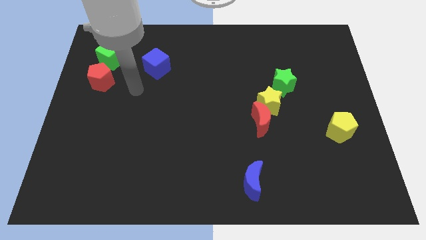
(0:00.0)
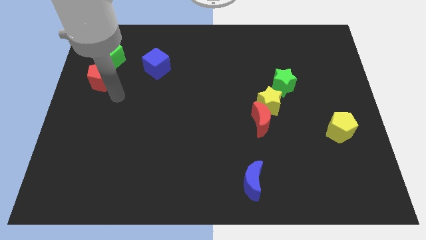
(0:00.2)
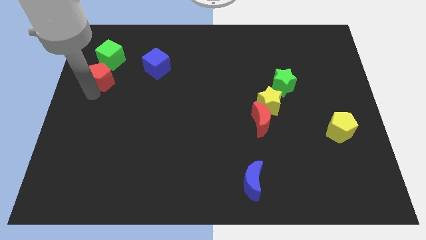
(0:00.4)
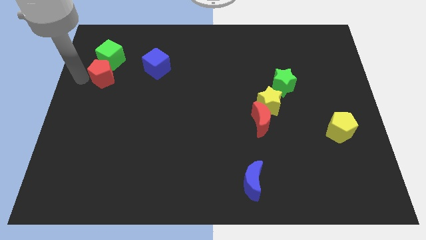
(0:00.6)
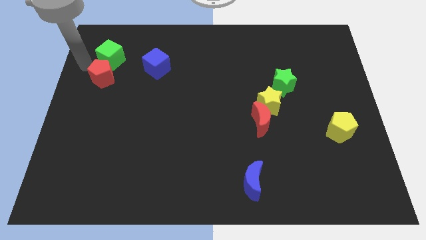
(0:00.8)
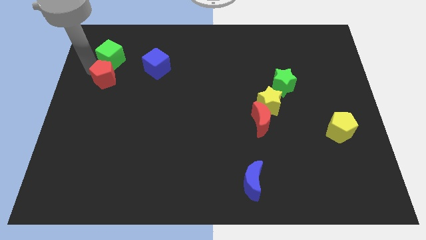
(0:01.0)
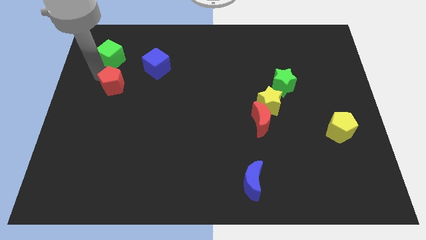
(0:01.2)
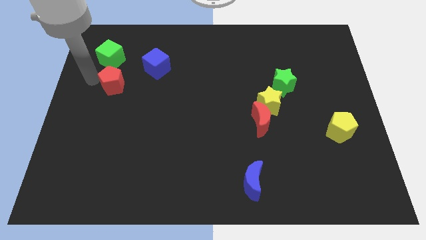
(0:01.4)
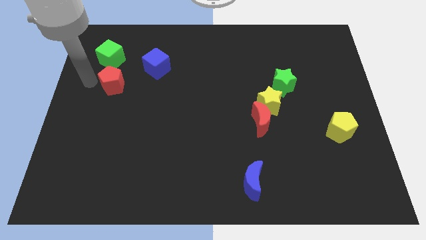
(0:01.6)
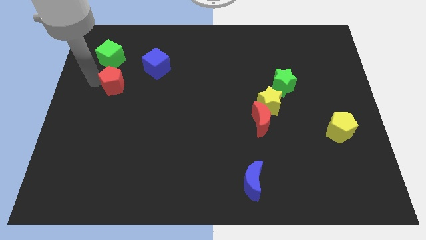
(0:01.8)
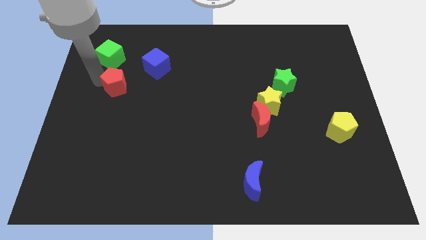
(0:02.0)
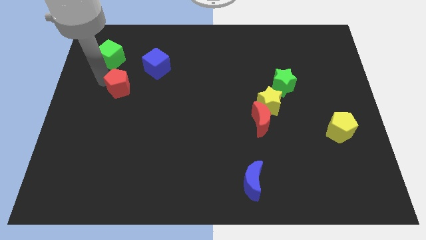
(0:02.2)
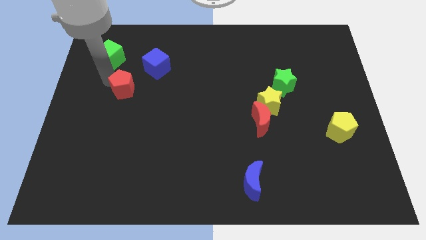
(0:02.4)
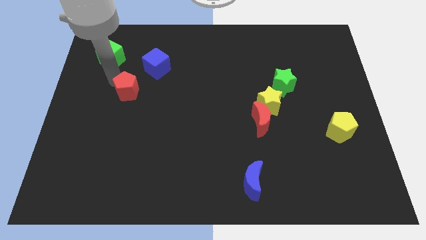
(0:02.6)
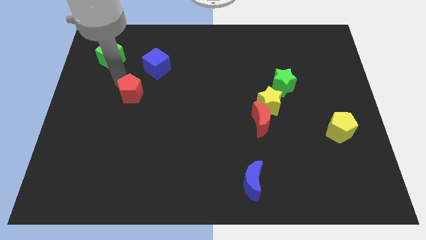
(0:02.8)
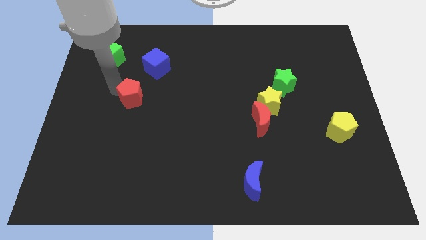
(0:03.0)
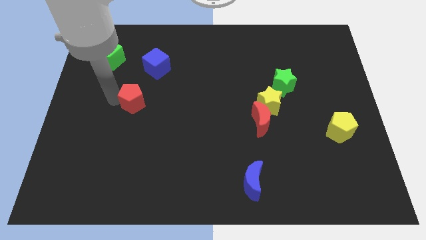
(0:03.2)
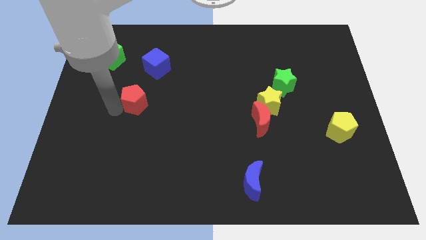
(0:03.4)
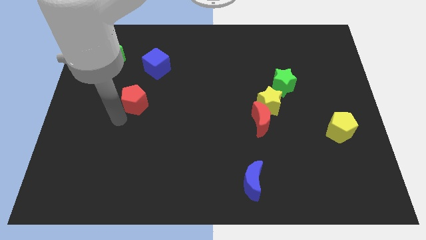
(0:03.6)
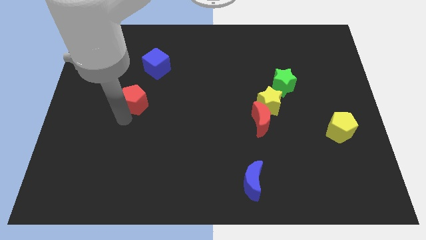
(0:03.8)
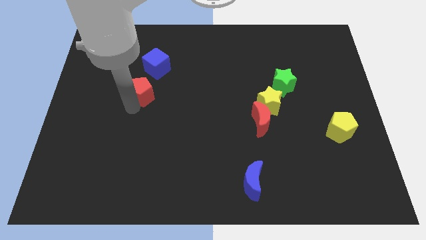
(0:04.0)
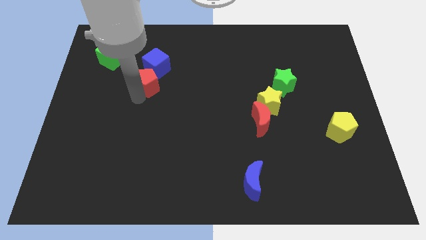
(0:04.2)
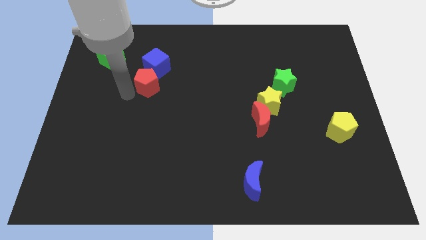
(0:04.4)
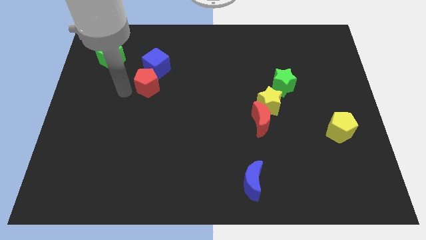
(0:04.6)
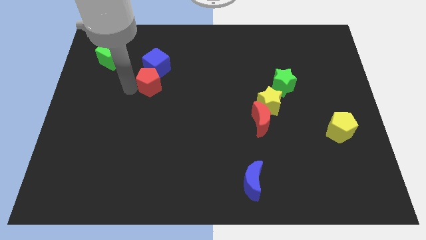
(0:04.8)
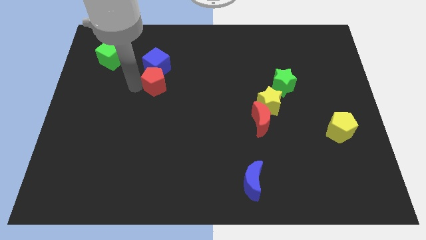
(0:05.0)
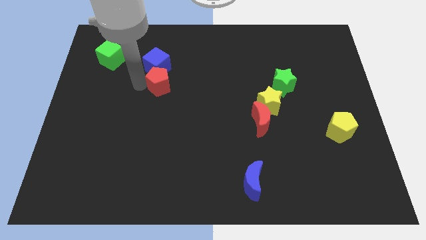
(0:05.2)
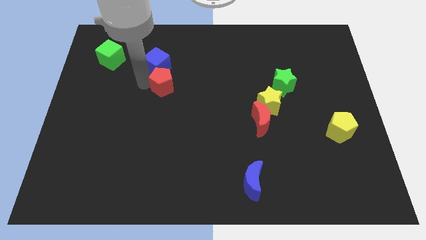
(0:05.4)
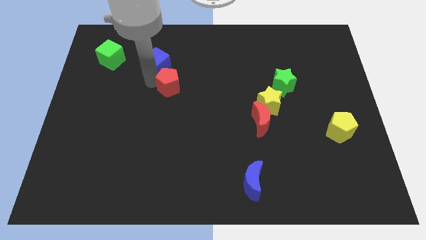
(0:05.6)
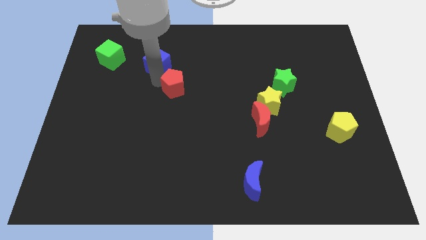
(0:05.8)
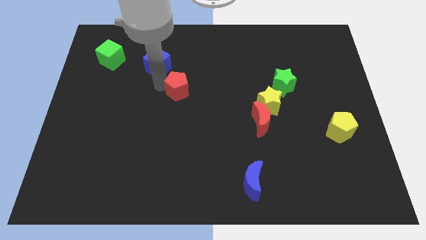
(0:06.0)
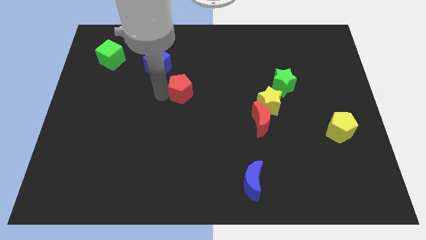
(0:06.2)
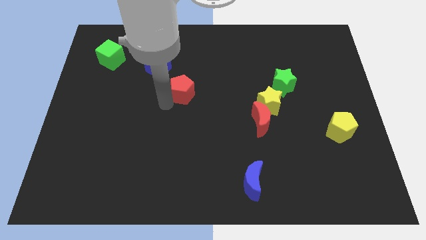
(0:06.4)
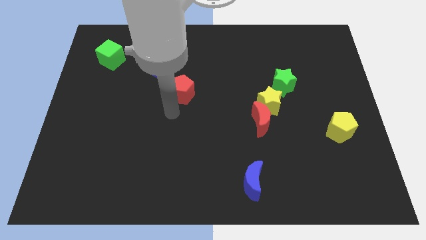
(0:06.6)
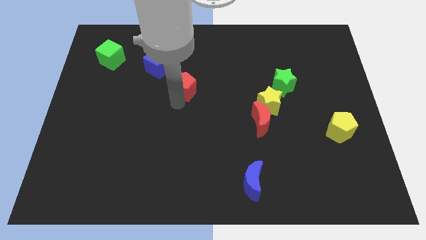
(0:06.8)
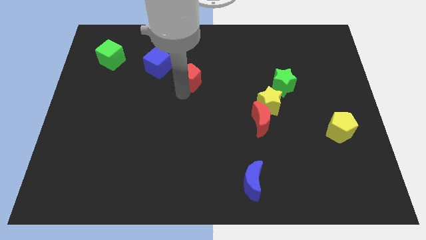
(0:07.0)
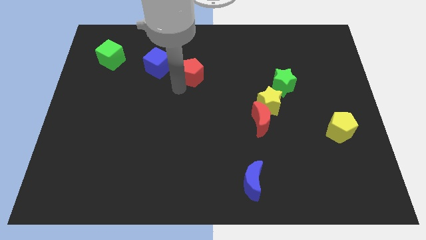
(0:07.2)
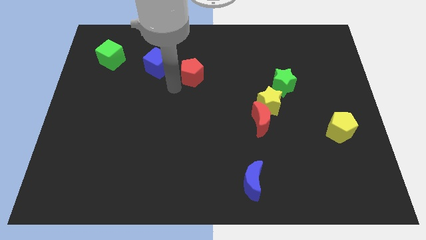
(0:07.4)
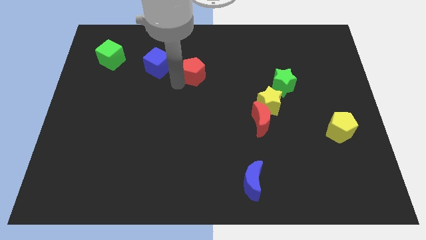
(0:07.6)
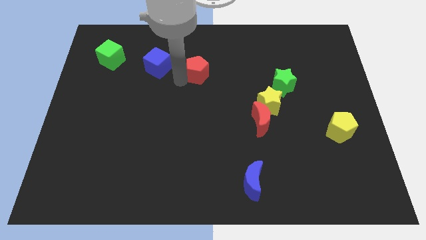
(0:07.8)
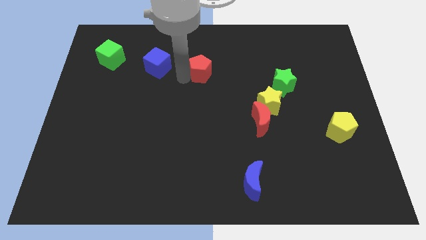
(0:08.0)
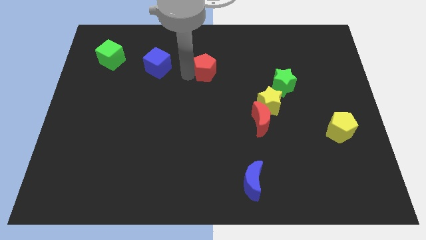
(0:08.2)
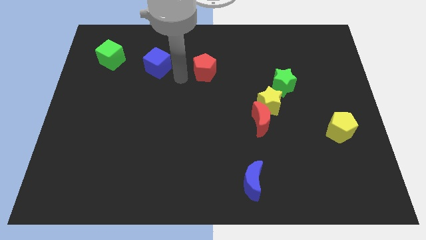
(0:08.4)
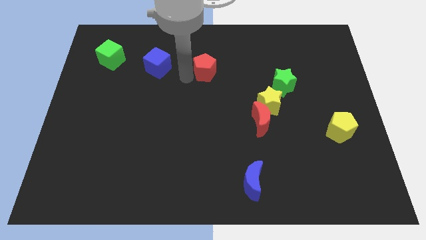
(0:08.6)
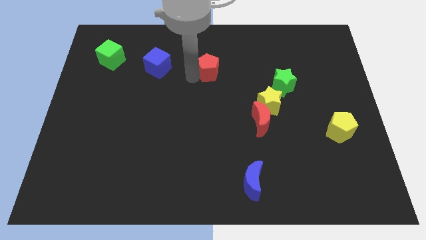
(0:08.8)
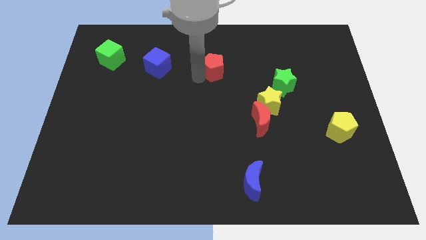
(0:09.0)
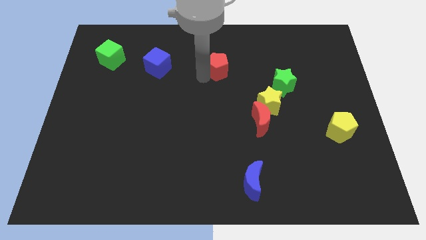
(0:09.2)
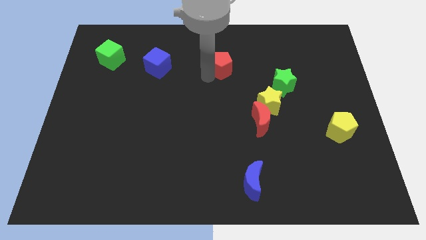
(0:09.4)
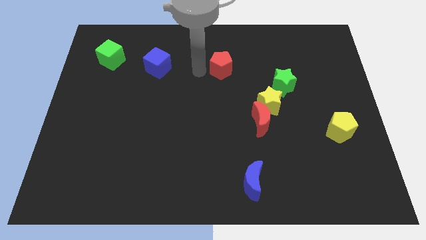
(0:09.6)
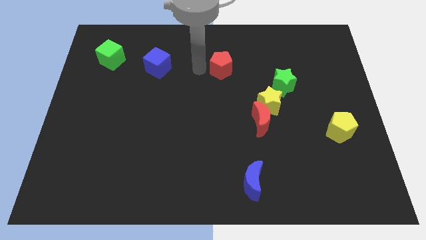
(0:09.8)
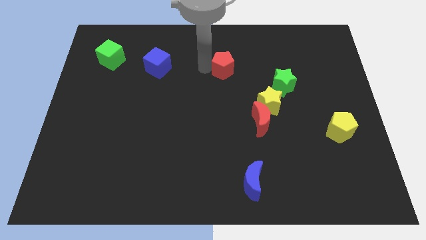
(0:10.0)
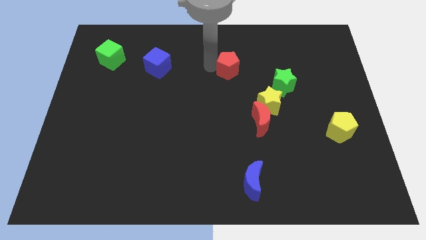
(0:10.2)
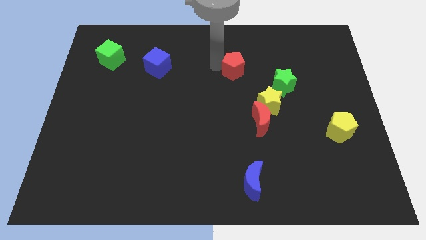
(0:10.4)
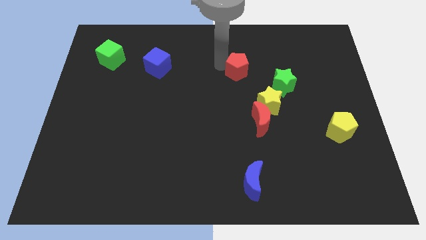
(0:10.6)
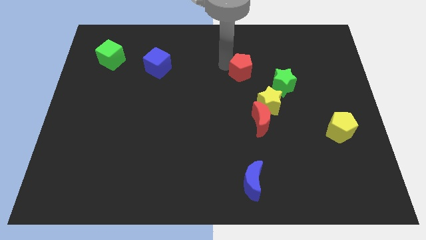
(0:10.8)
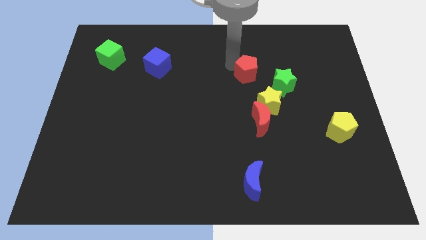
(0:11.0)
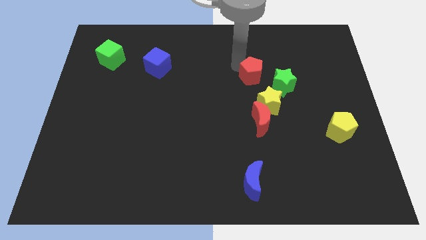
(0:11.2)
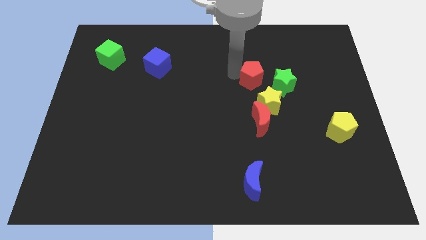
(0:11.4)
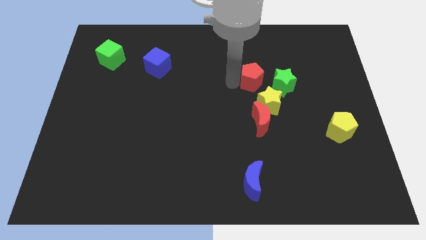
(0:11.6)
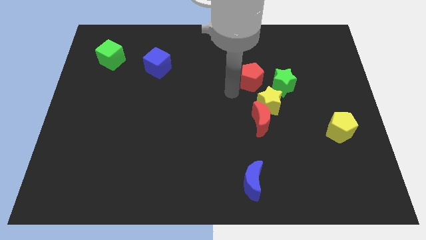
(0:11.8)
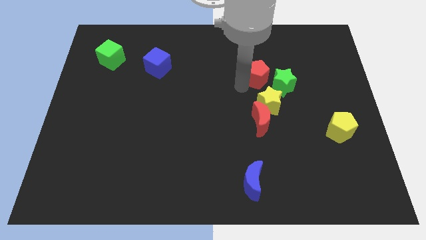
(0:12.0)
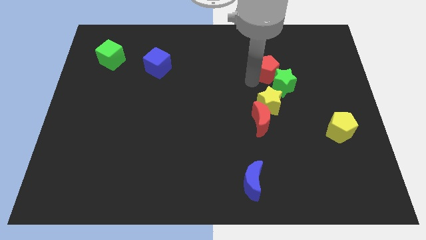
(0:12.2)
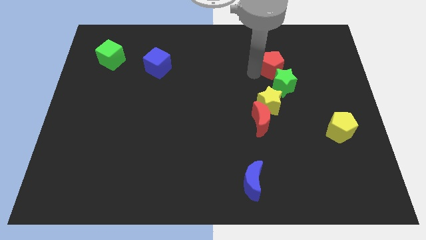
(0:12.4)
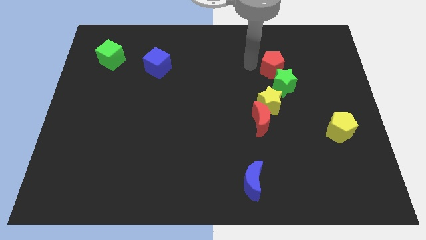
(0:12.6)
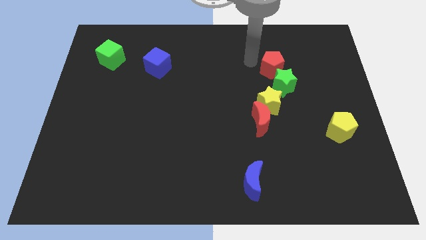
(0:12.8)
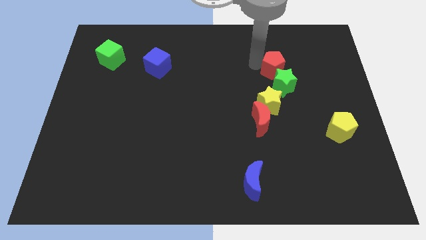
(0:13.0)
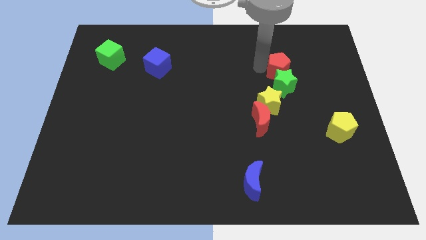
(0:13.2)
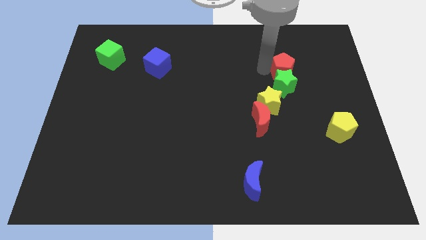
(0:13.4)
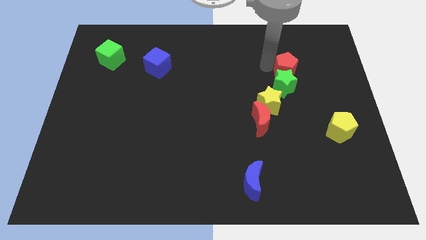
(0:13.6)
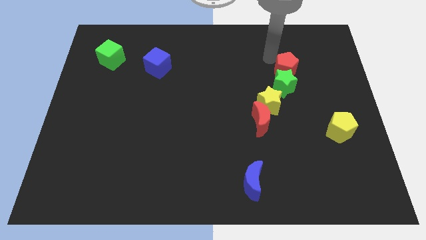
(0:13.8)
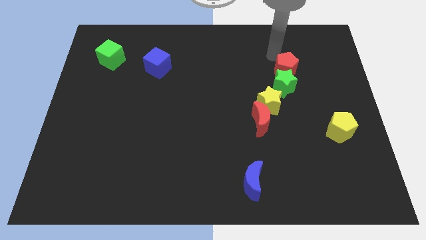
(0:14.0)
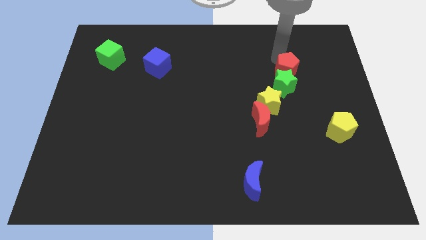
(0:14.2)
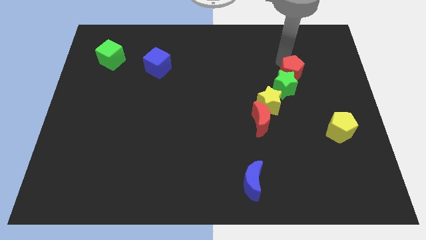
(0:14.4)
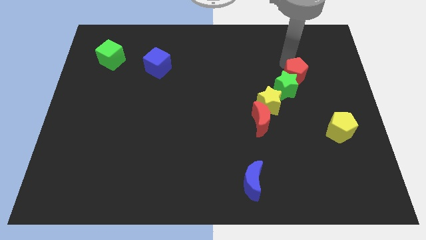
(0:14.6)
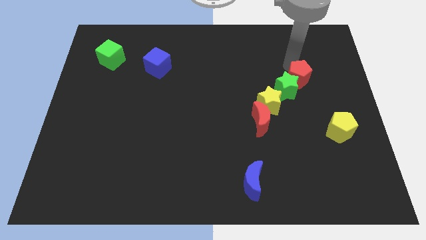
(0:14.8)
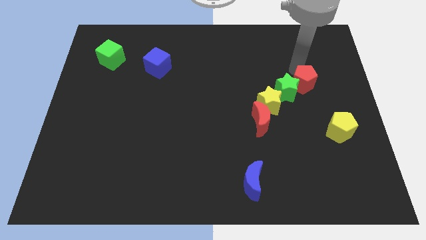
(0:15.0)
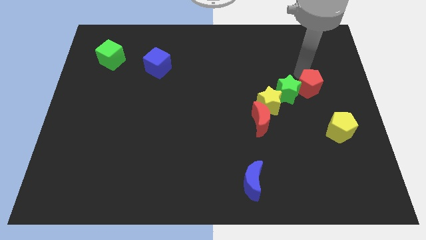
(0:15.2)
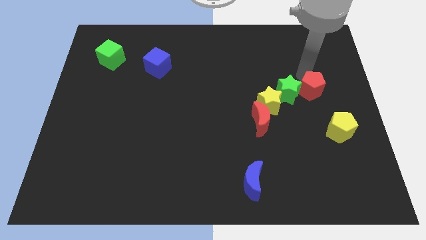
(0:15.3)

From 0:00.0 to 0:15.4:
push the red pentagon to the bottom right side of the green star
